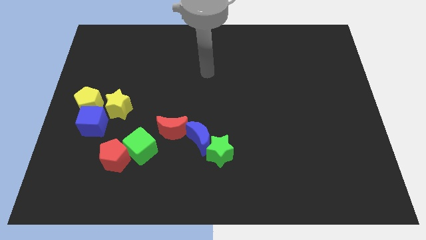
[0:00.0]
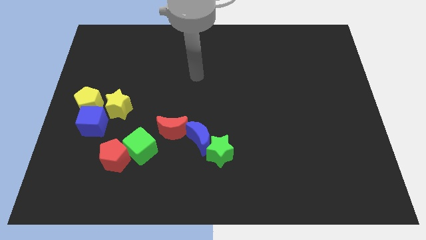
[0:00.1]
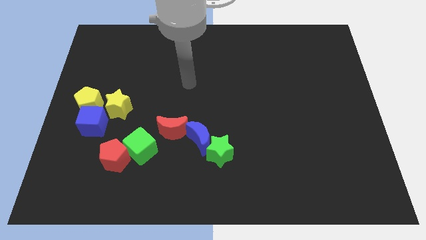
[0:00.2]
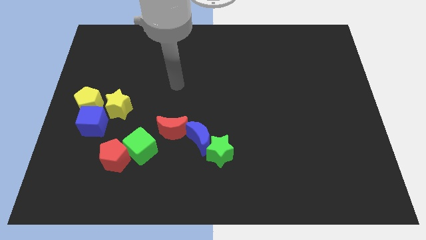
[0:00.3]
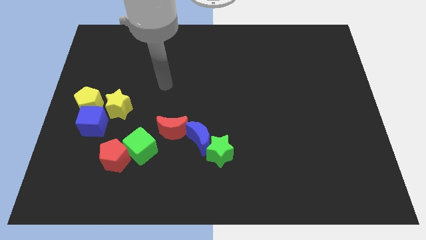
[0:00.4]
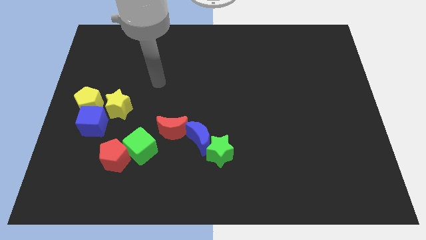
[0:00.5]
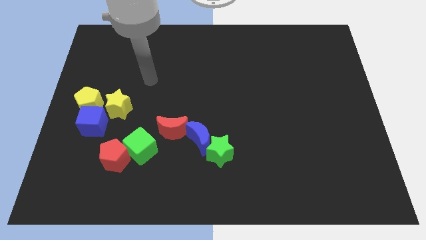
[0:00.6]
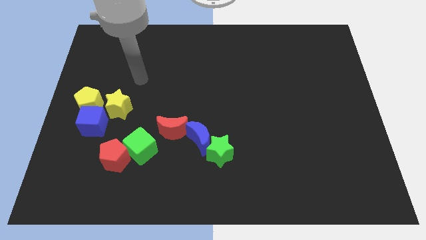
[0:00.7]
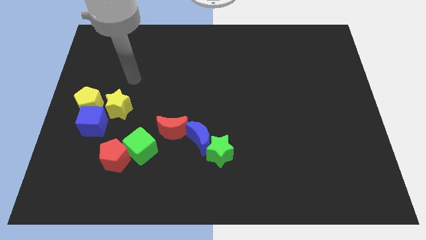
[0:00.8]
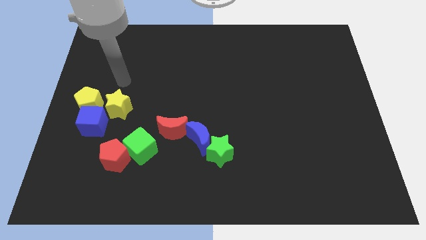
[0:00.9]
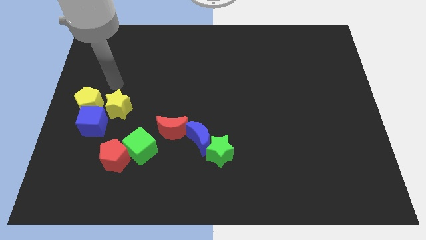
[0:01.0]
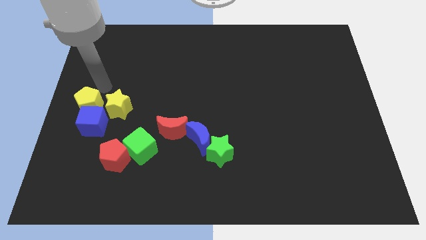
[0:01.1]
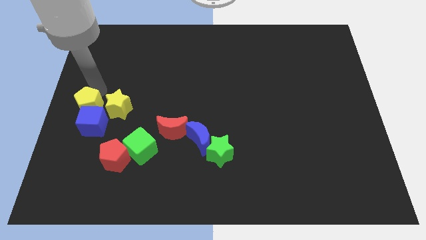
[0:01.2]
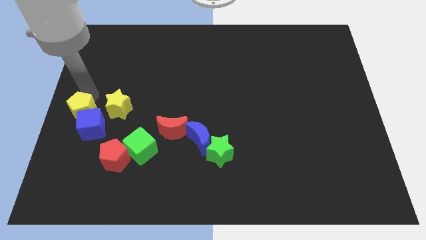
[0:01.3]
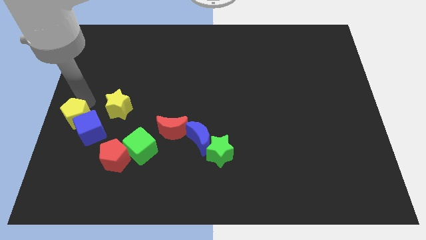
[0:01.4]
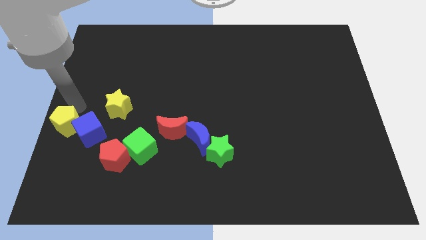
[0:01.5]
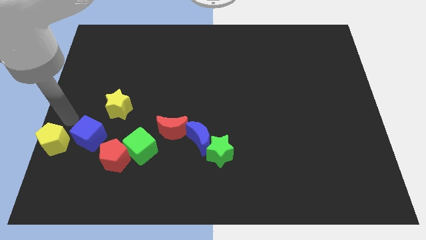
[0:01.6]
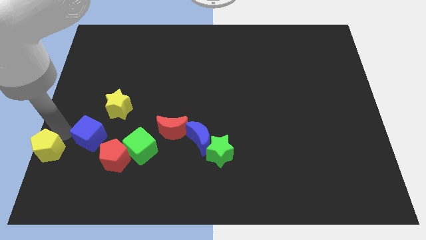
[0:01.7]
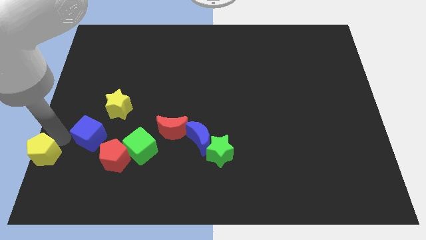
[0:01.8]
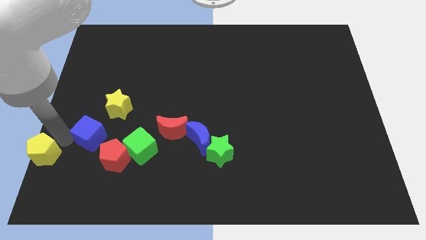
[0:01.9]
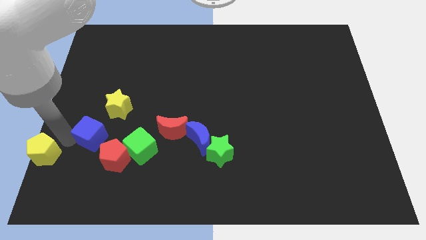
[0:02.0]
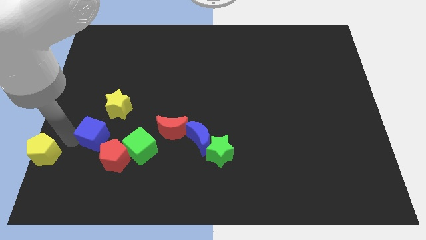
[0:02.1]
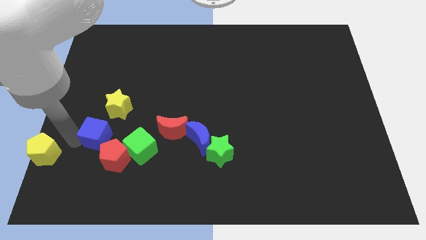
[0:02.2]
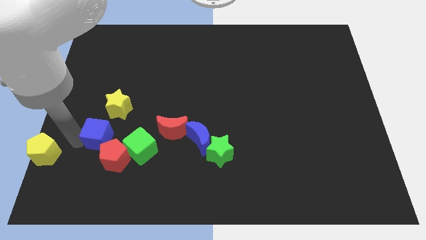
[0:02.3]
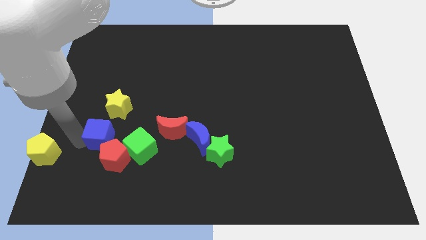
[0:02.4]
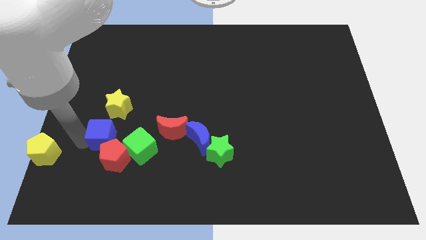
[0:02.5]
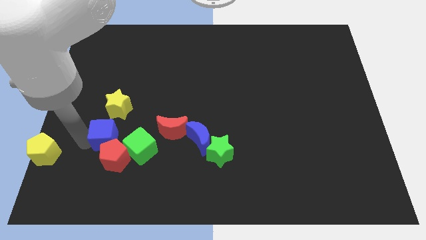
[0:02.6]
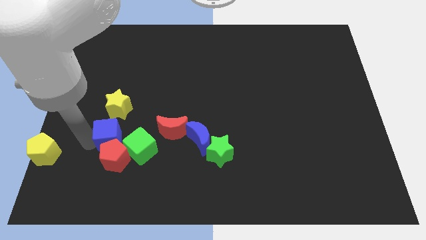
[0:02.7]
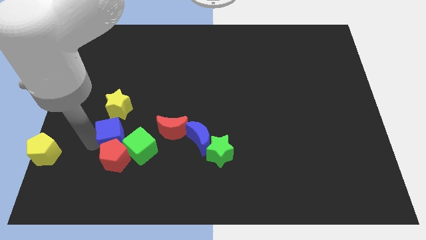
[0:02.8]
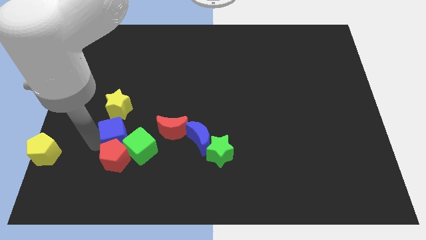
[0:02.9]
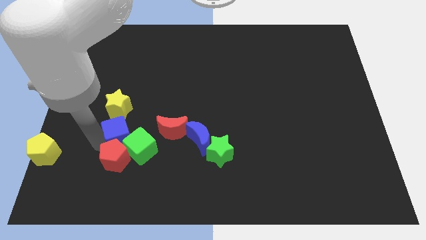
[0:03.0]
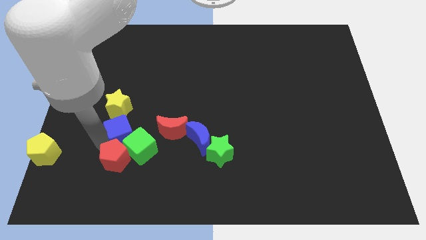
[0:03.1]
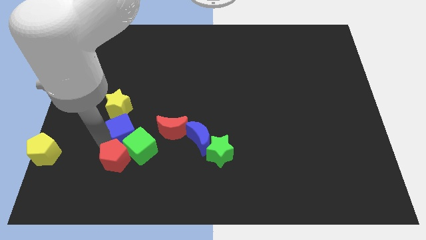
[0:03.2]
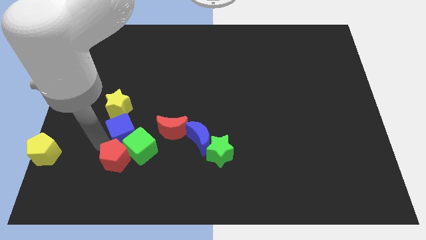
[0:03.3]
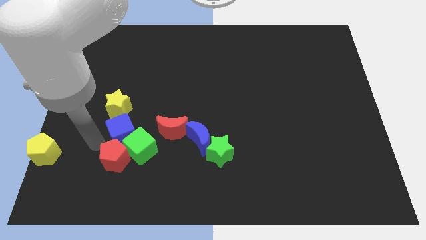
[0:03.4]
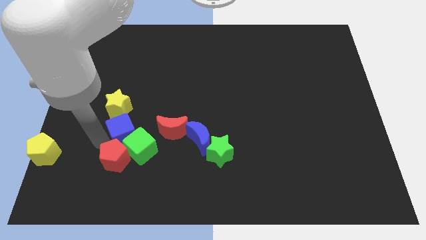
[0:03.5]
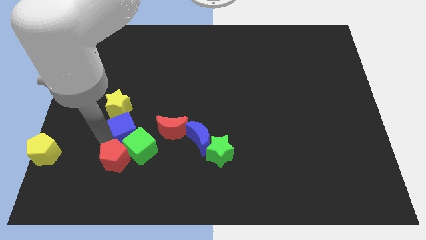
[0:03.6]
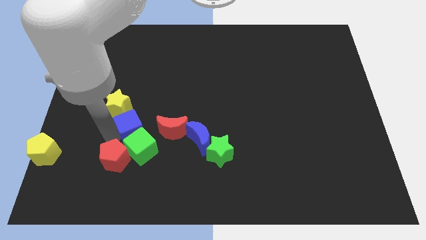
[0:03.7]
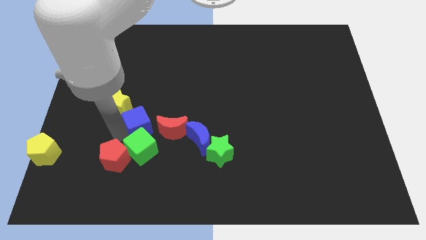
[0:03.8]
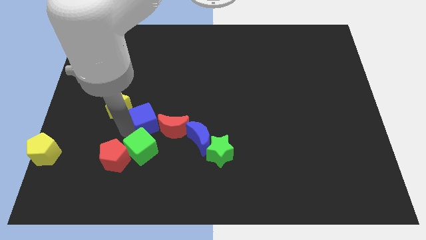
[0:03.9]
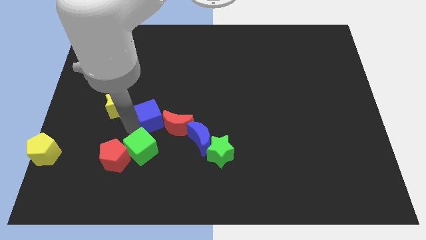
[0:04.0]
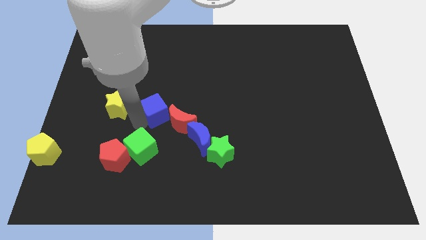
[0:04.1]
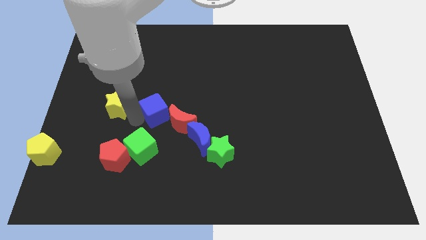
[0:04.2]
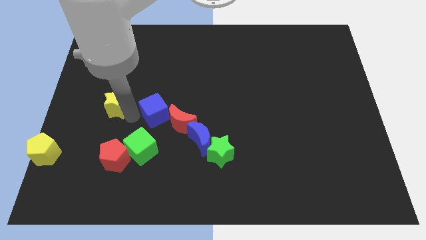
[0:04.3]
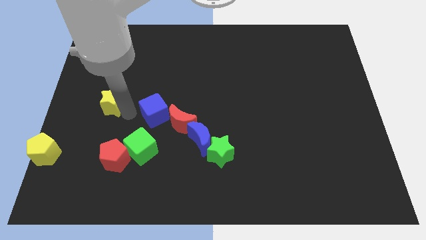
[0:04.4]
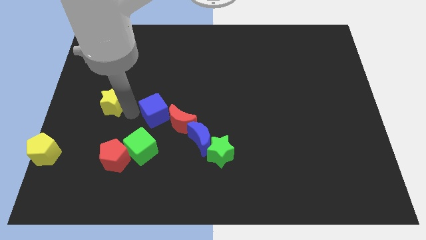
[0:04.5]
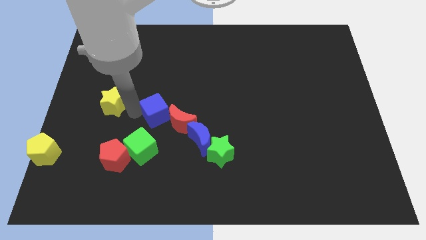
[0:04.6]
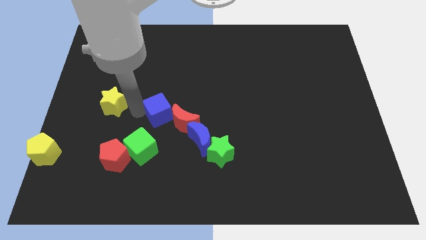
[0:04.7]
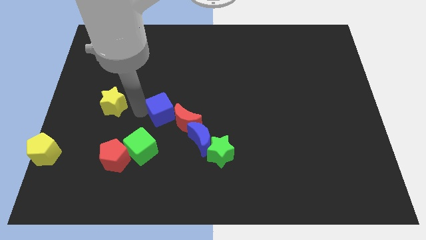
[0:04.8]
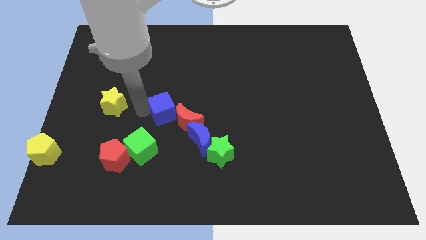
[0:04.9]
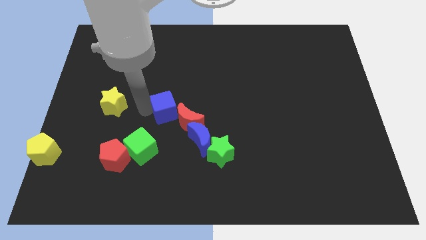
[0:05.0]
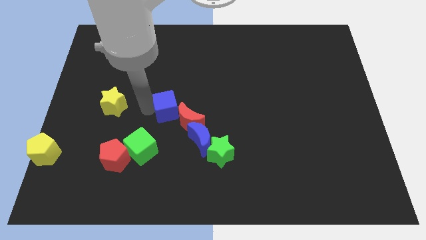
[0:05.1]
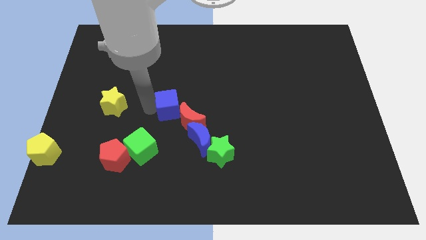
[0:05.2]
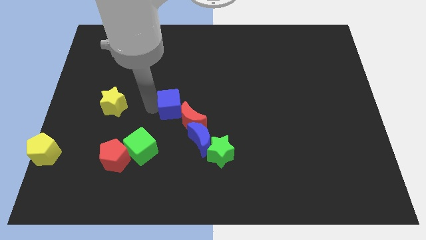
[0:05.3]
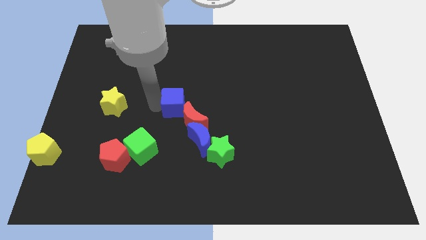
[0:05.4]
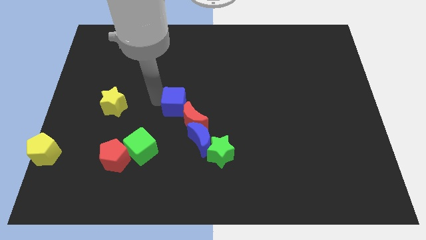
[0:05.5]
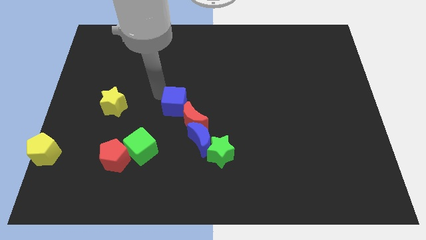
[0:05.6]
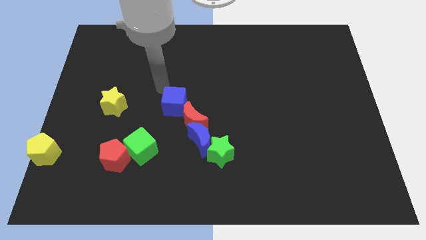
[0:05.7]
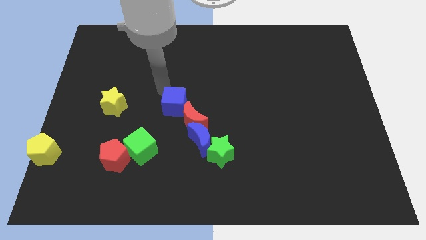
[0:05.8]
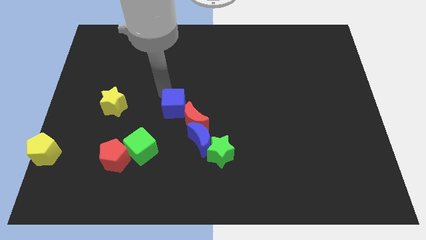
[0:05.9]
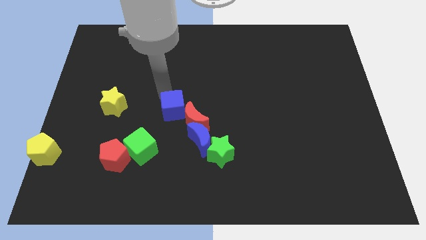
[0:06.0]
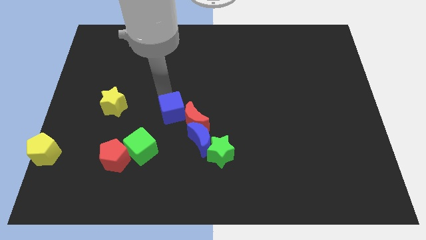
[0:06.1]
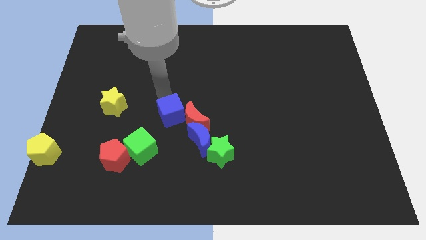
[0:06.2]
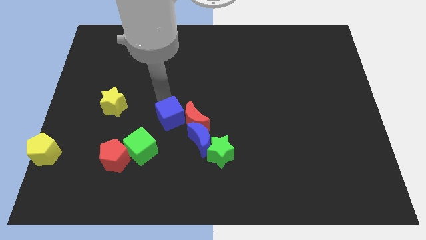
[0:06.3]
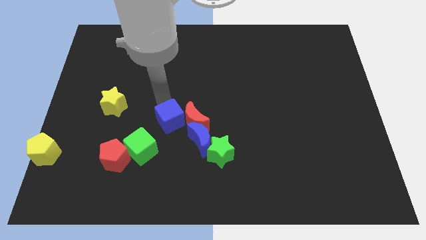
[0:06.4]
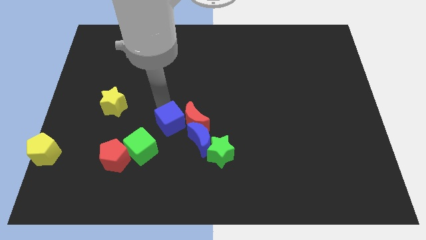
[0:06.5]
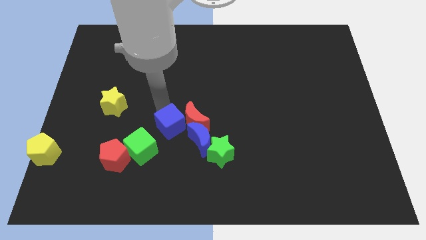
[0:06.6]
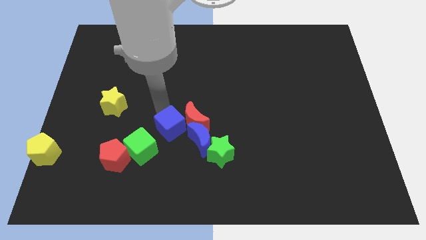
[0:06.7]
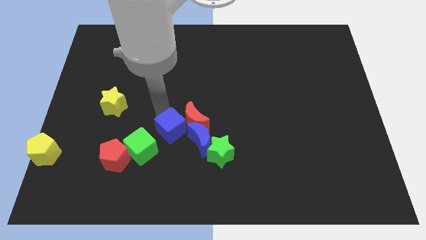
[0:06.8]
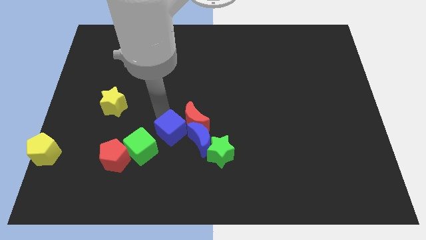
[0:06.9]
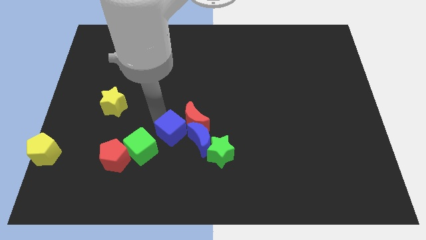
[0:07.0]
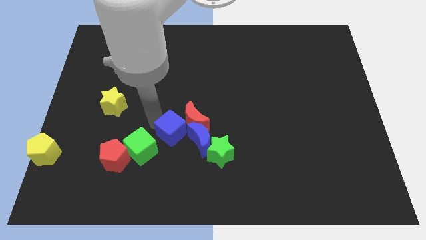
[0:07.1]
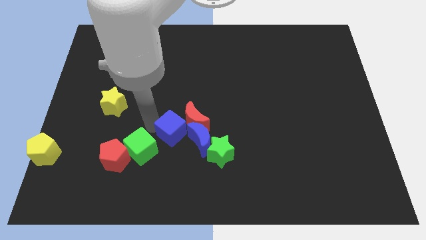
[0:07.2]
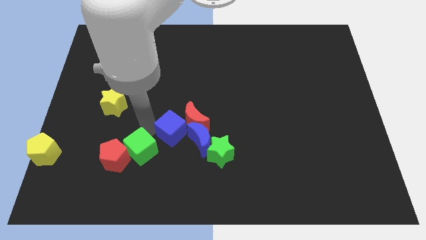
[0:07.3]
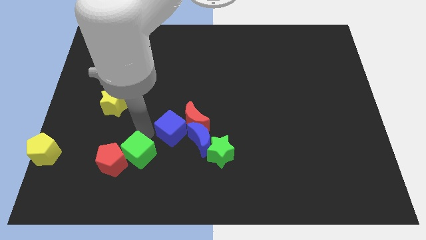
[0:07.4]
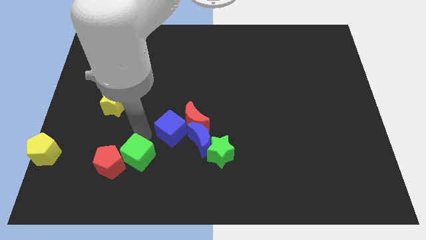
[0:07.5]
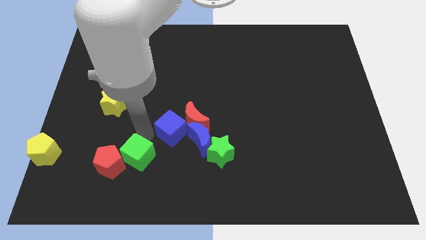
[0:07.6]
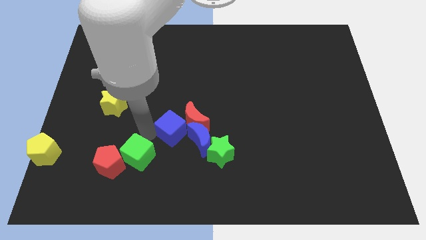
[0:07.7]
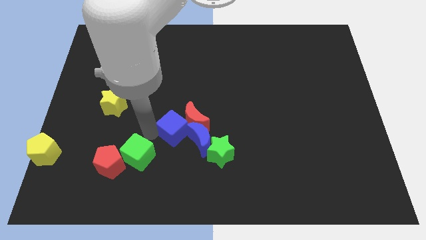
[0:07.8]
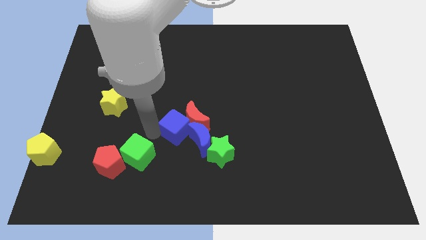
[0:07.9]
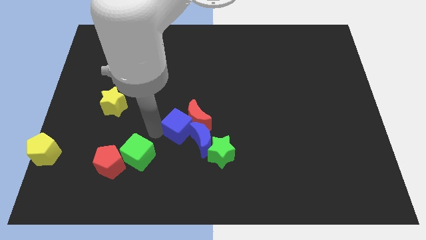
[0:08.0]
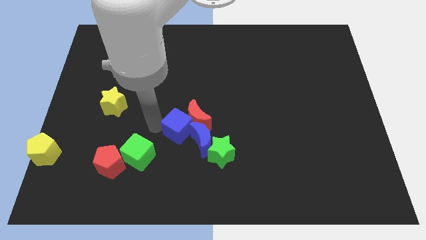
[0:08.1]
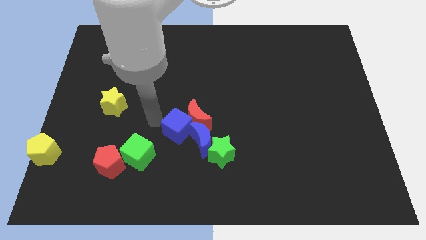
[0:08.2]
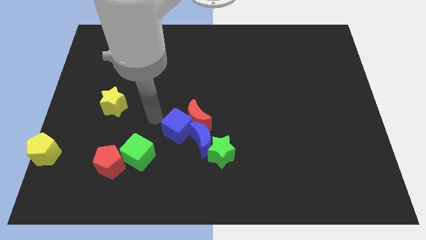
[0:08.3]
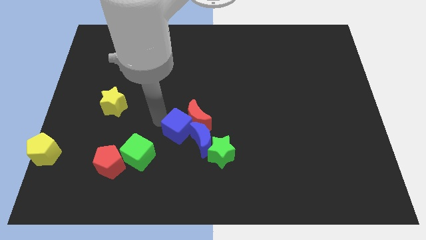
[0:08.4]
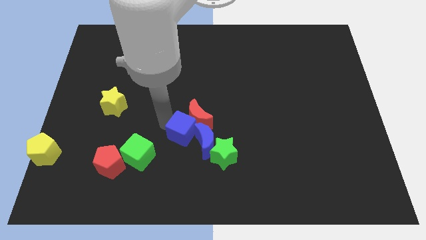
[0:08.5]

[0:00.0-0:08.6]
move the blue cube next to the blue moon
